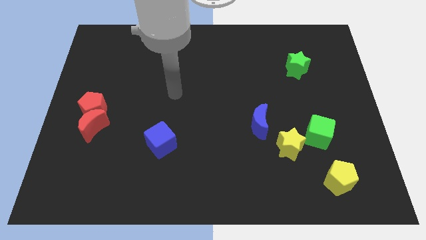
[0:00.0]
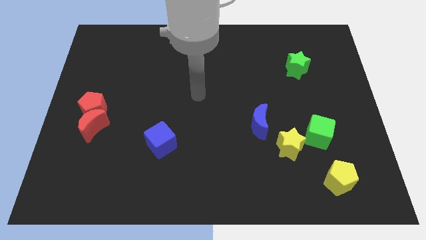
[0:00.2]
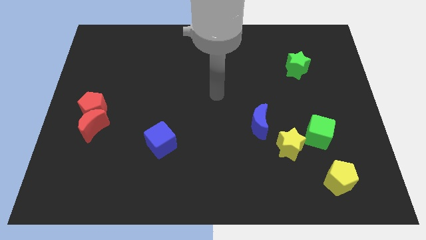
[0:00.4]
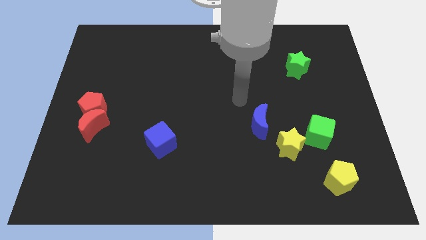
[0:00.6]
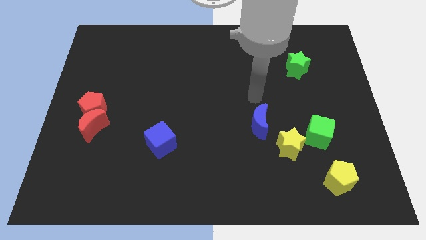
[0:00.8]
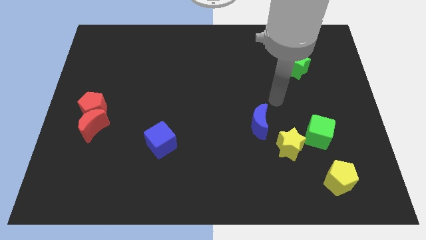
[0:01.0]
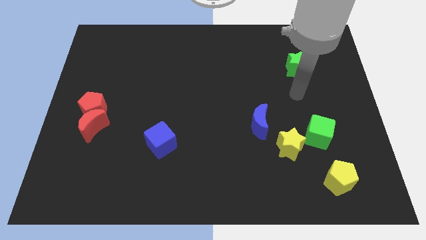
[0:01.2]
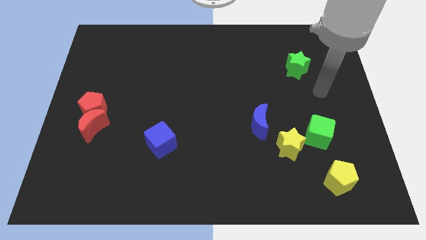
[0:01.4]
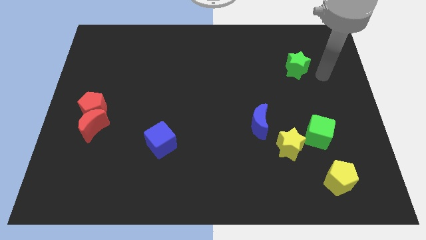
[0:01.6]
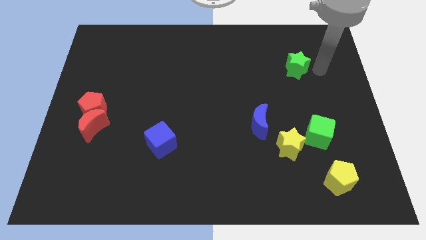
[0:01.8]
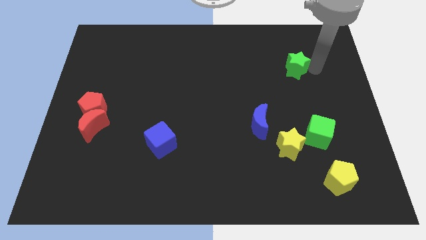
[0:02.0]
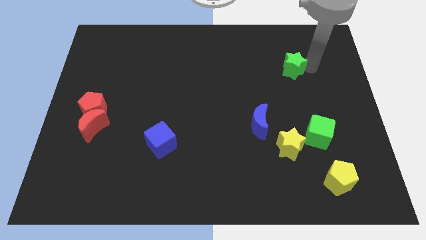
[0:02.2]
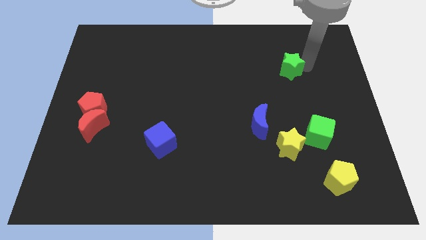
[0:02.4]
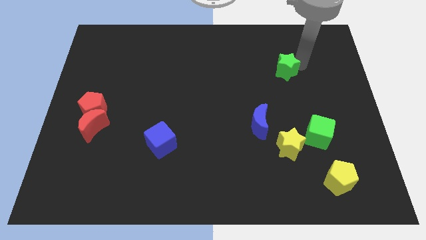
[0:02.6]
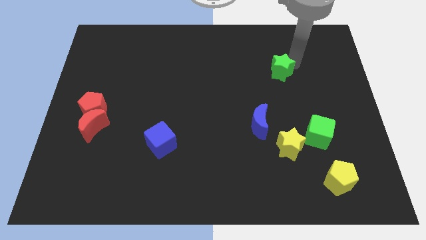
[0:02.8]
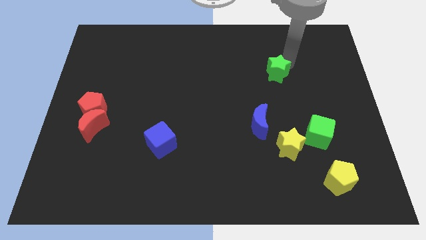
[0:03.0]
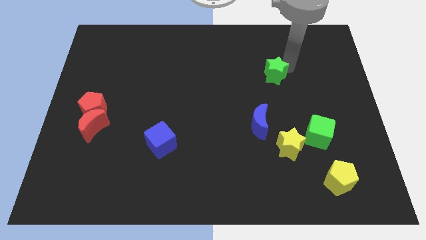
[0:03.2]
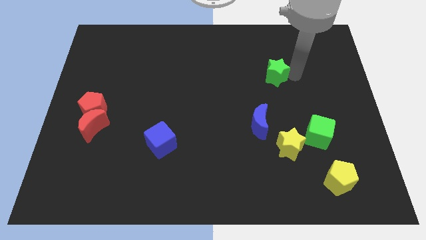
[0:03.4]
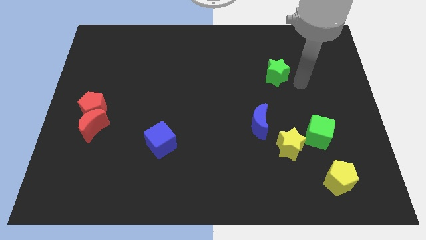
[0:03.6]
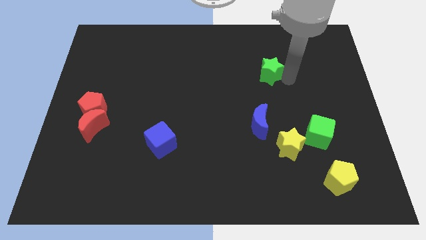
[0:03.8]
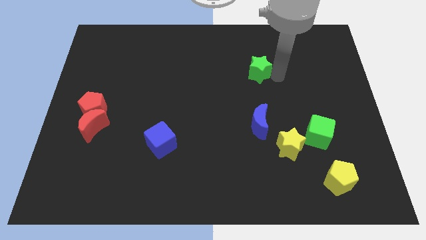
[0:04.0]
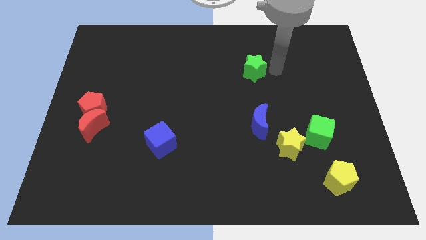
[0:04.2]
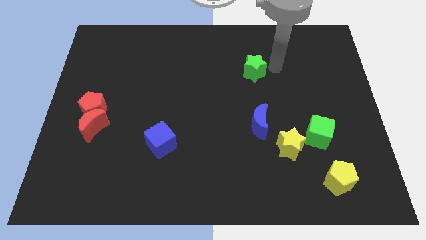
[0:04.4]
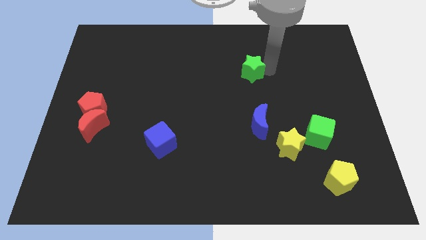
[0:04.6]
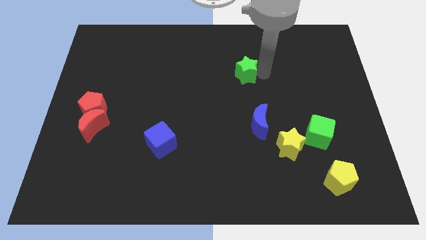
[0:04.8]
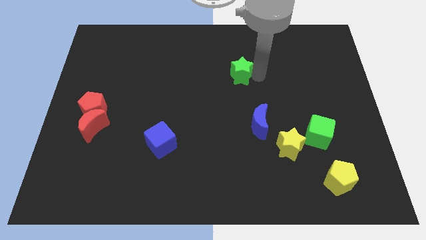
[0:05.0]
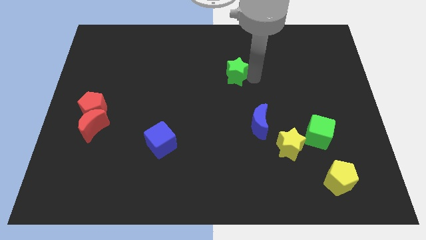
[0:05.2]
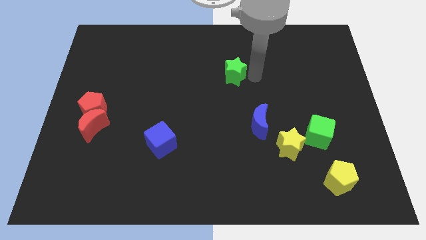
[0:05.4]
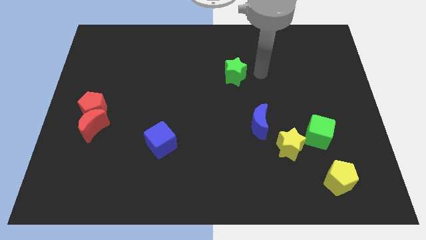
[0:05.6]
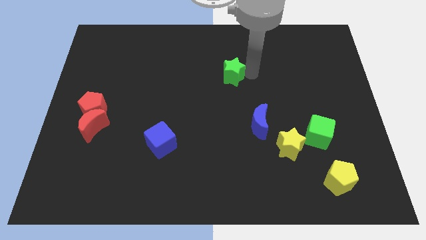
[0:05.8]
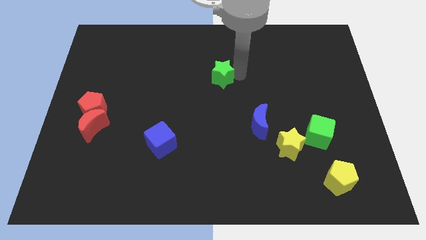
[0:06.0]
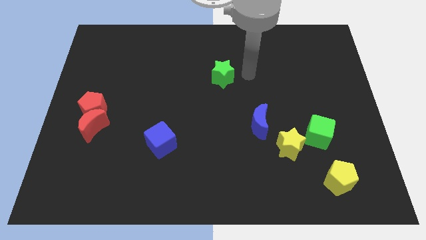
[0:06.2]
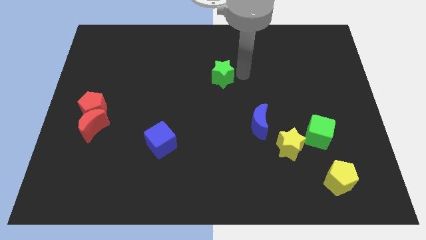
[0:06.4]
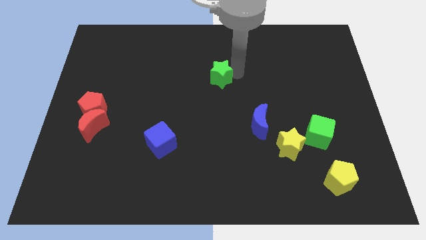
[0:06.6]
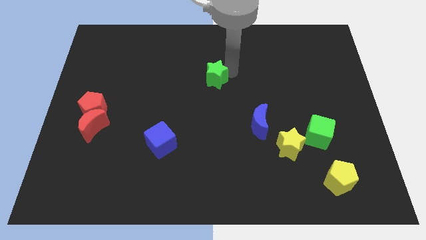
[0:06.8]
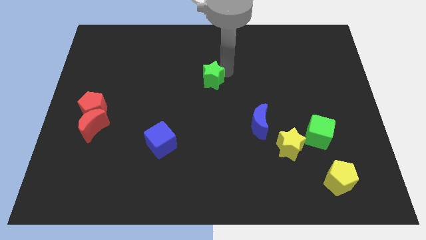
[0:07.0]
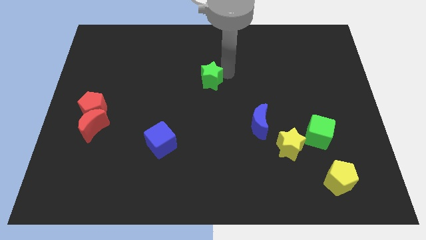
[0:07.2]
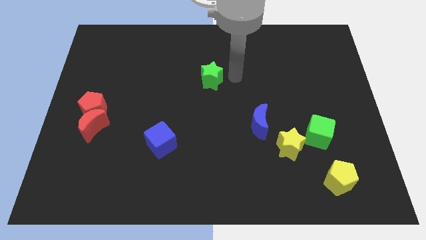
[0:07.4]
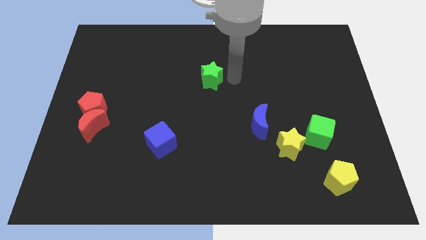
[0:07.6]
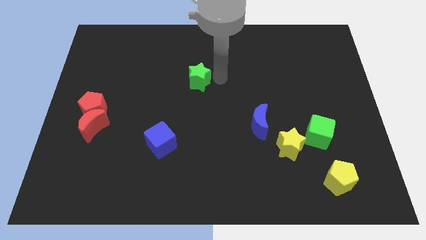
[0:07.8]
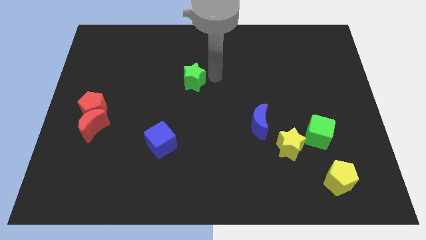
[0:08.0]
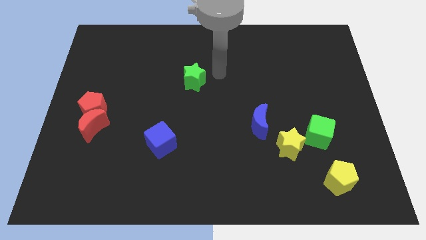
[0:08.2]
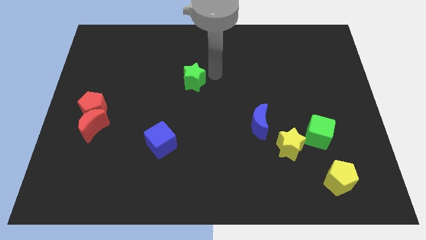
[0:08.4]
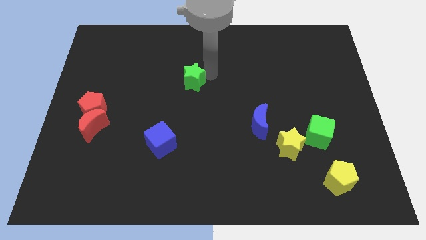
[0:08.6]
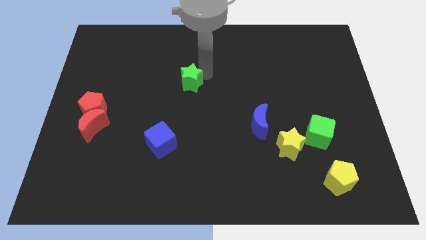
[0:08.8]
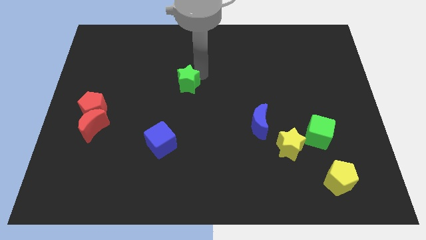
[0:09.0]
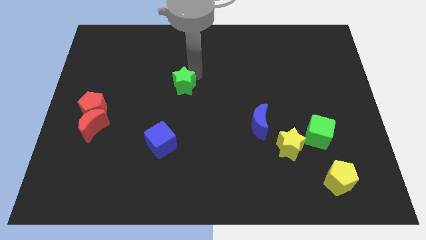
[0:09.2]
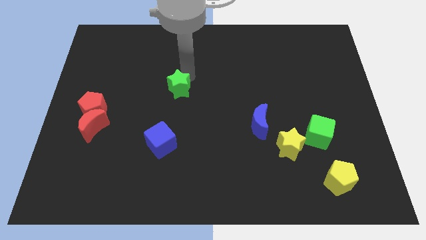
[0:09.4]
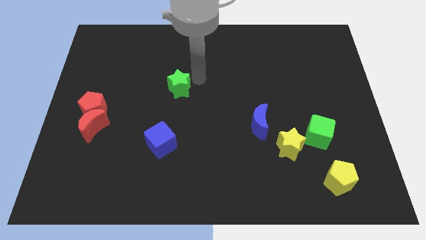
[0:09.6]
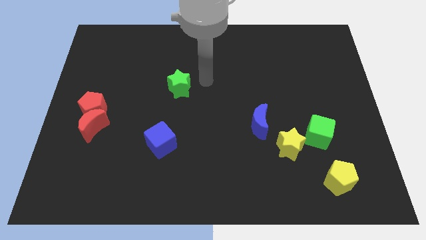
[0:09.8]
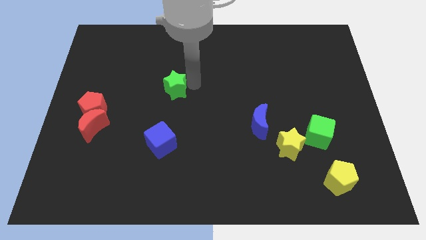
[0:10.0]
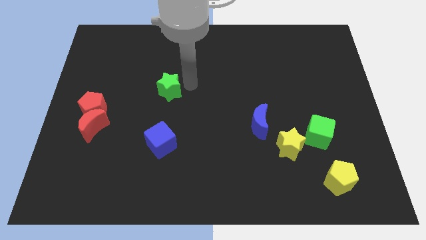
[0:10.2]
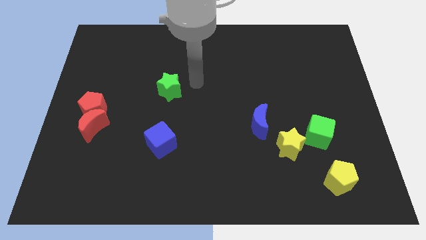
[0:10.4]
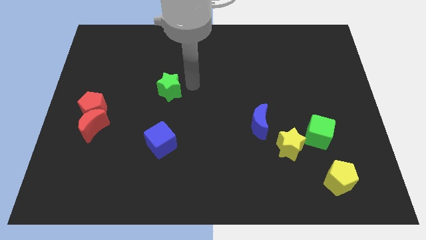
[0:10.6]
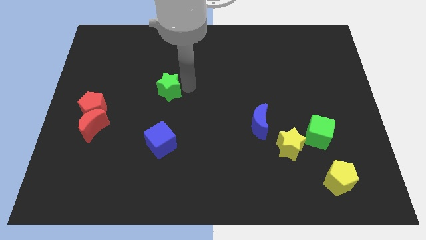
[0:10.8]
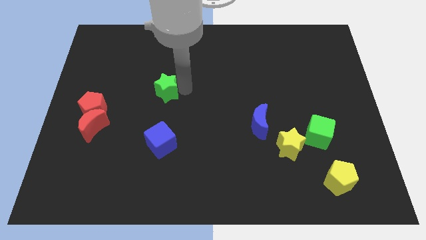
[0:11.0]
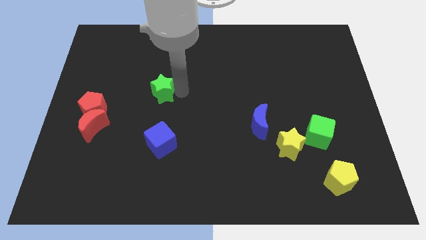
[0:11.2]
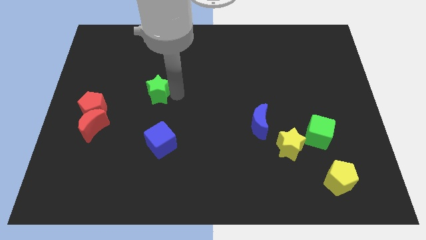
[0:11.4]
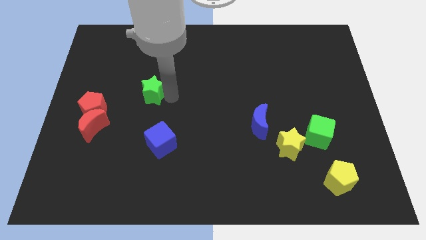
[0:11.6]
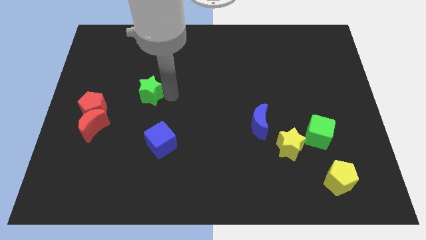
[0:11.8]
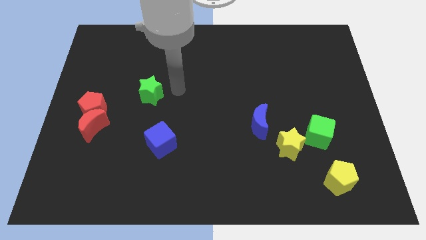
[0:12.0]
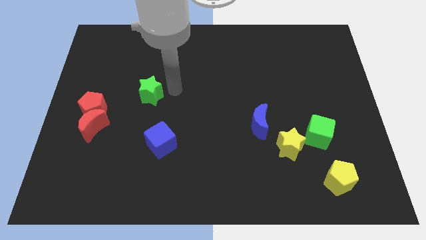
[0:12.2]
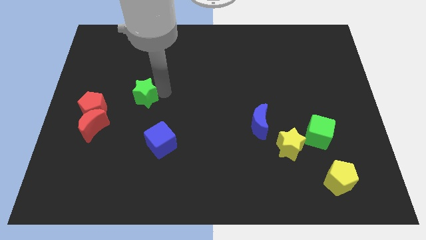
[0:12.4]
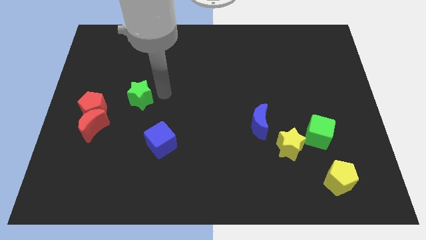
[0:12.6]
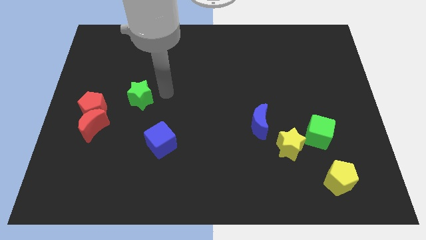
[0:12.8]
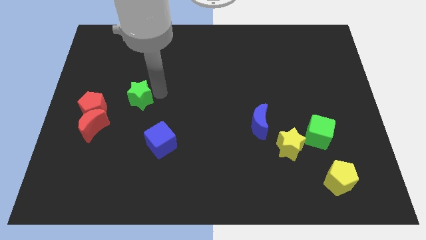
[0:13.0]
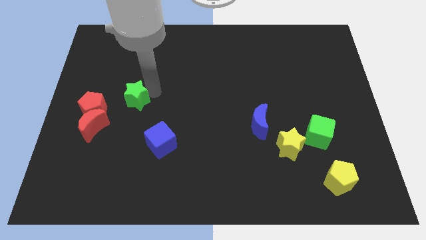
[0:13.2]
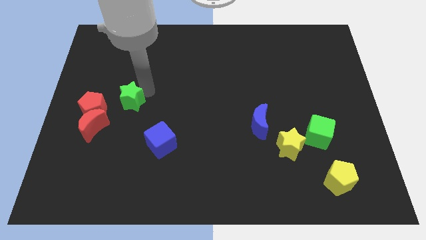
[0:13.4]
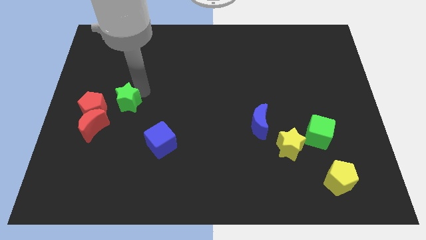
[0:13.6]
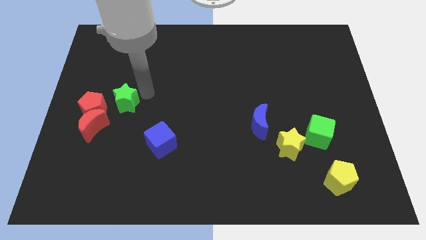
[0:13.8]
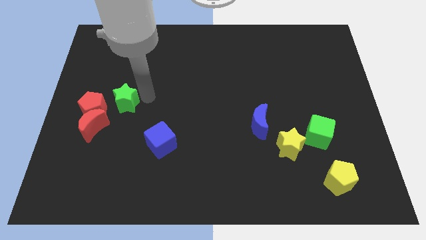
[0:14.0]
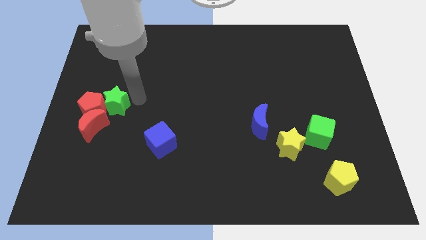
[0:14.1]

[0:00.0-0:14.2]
slide the green star to the red pentagon
